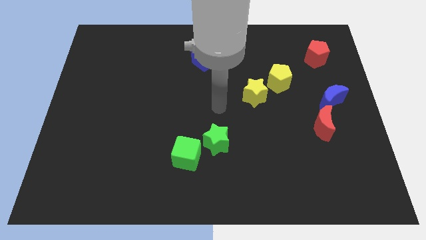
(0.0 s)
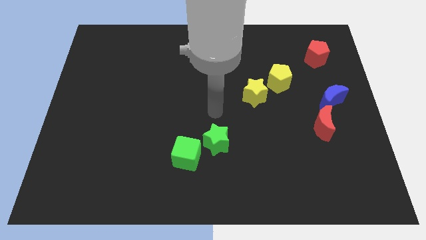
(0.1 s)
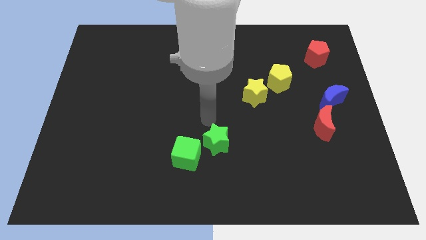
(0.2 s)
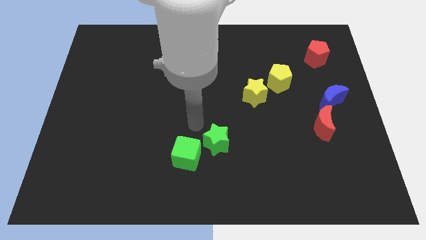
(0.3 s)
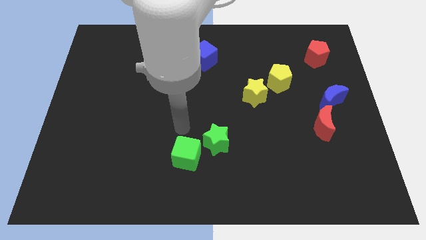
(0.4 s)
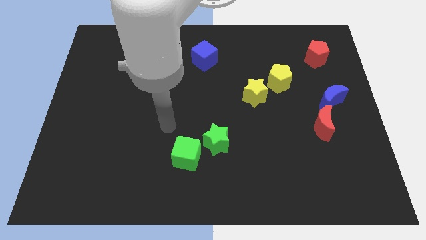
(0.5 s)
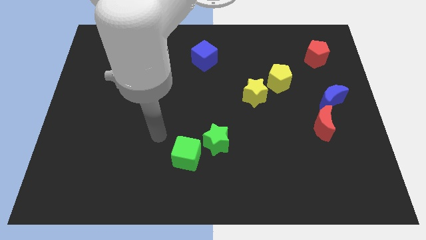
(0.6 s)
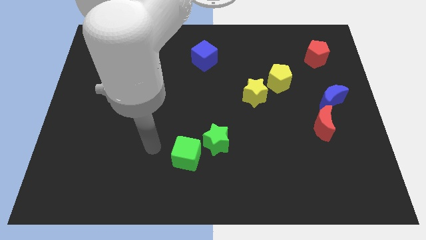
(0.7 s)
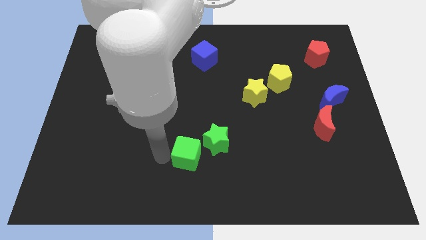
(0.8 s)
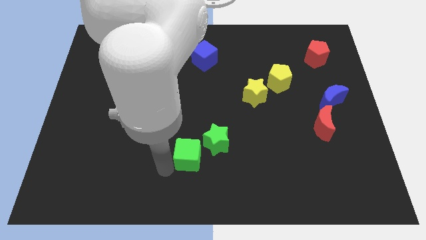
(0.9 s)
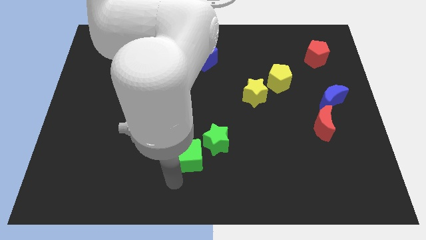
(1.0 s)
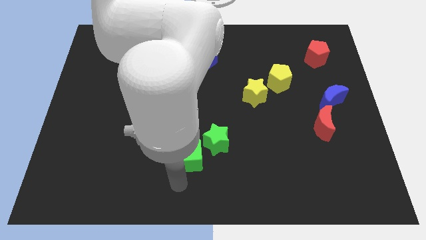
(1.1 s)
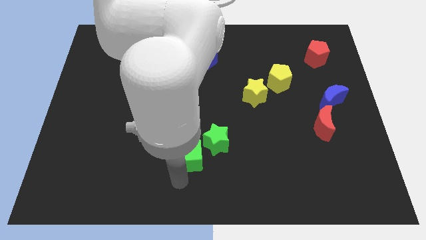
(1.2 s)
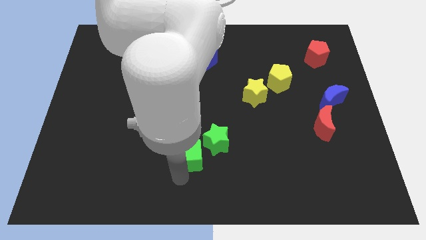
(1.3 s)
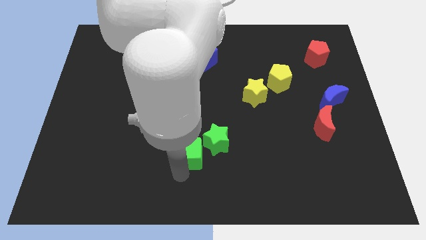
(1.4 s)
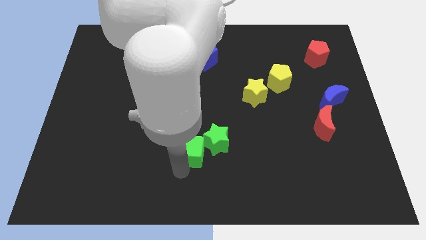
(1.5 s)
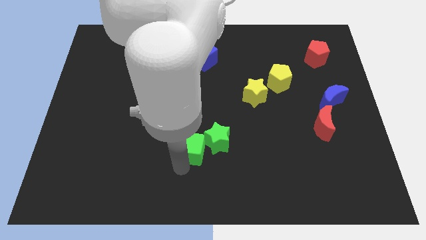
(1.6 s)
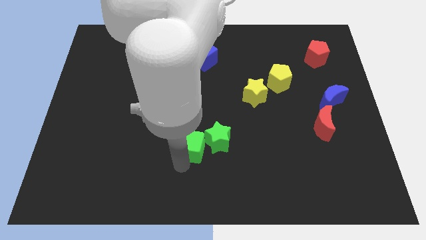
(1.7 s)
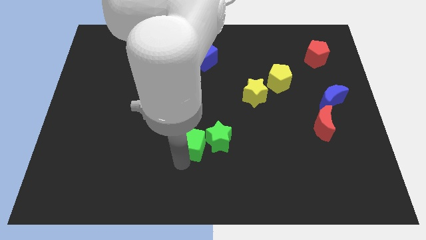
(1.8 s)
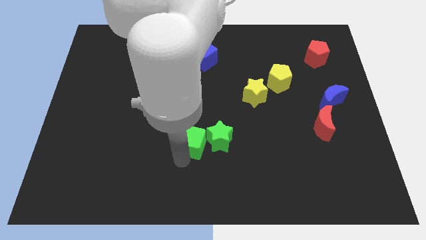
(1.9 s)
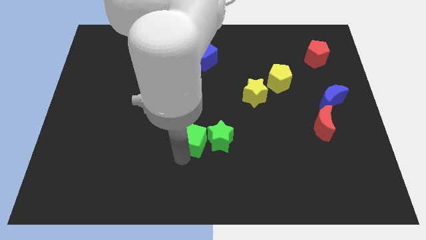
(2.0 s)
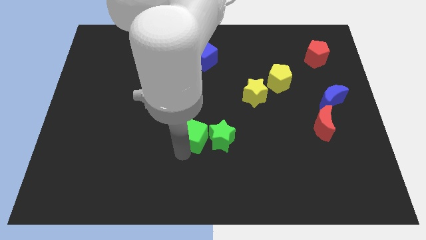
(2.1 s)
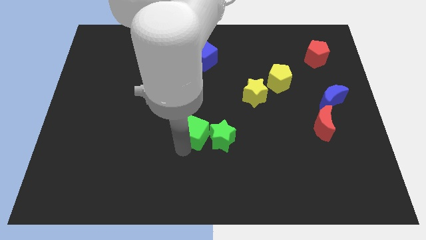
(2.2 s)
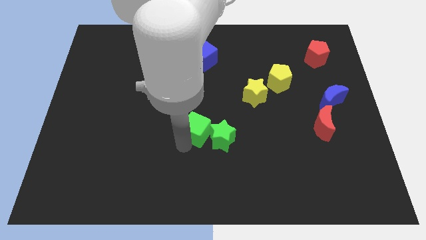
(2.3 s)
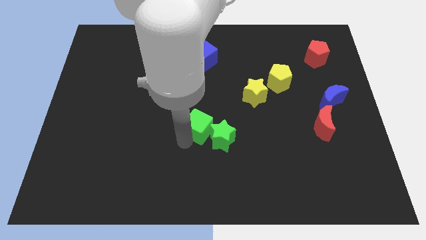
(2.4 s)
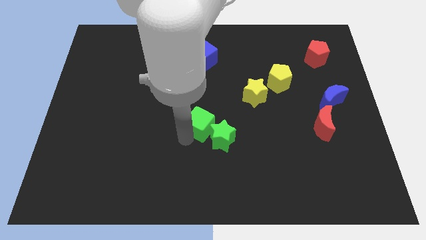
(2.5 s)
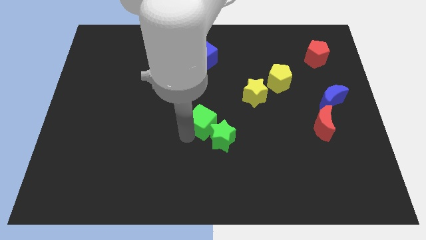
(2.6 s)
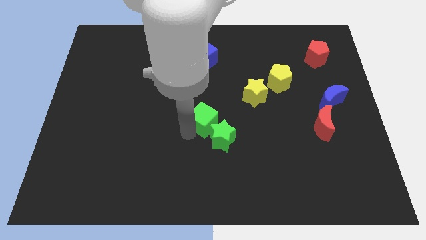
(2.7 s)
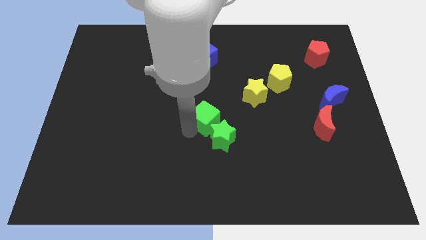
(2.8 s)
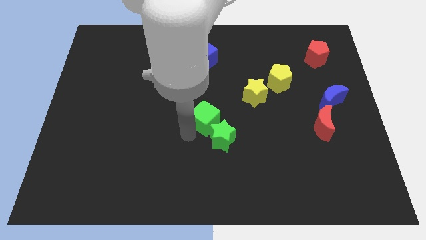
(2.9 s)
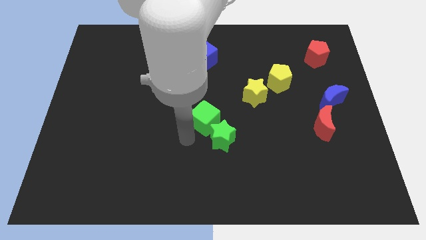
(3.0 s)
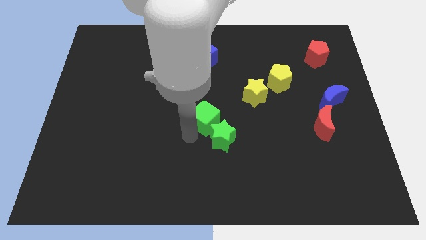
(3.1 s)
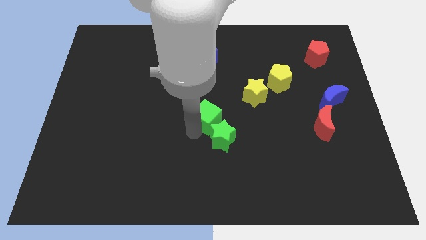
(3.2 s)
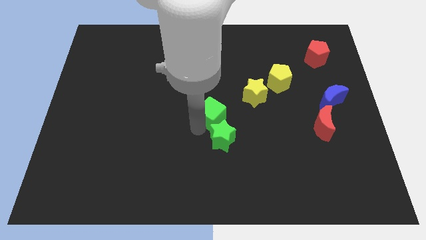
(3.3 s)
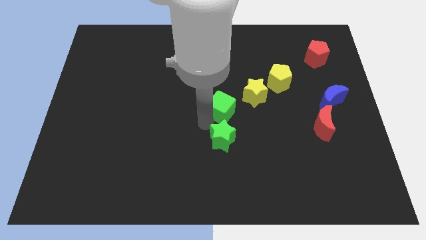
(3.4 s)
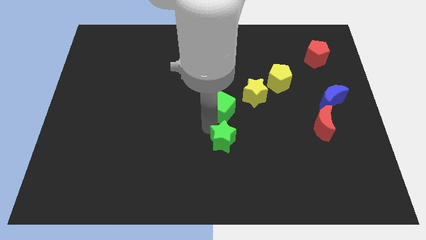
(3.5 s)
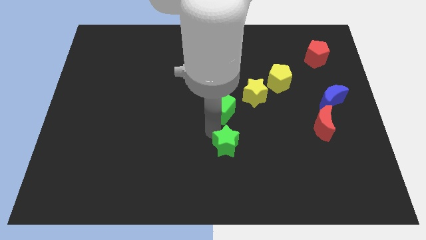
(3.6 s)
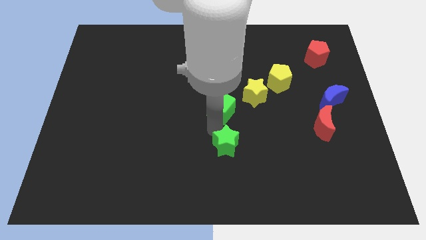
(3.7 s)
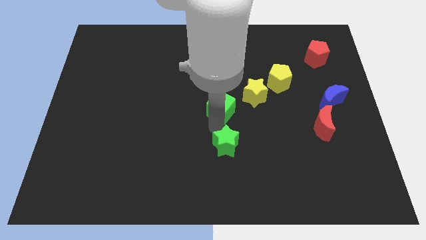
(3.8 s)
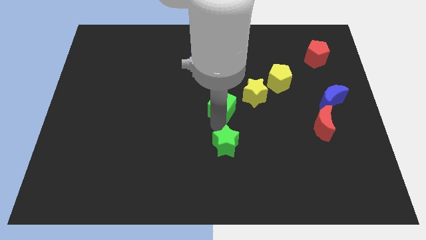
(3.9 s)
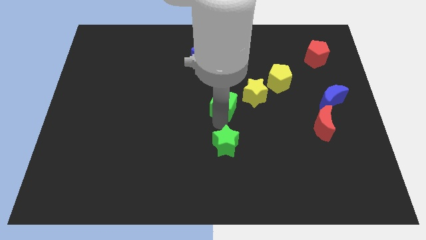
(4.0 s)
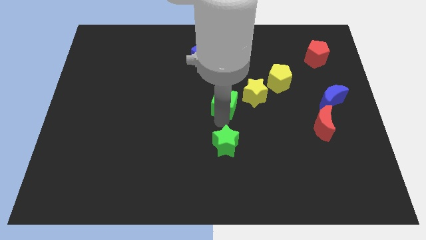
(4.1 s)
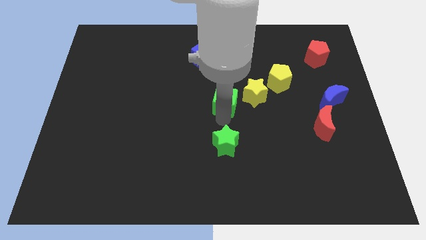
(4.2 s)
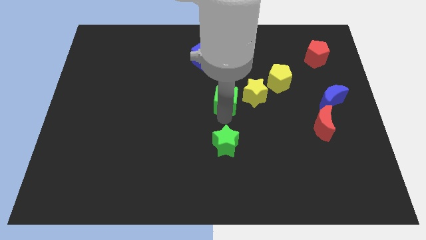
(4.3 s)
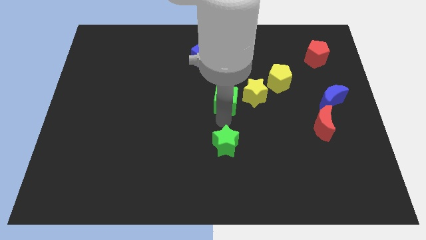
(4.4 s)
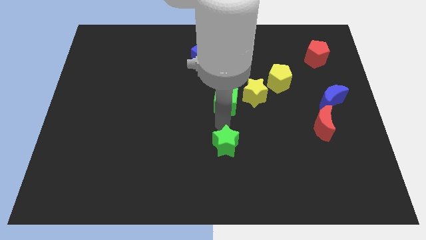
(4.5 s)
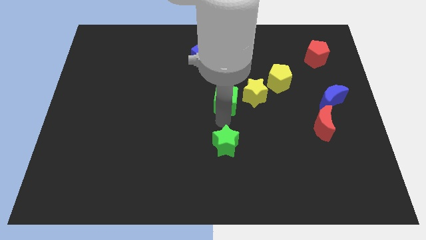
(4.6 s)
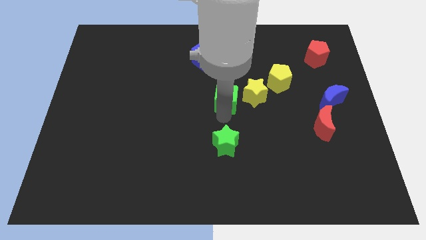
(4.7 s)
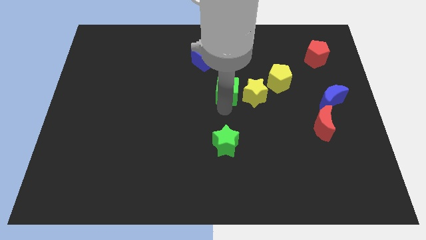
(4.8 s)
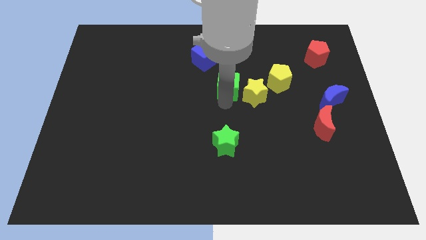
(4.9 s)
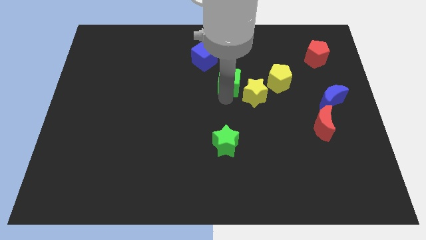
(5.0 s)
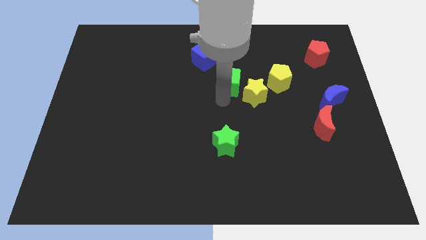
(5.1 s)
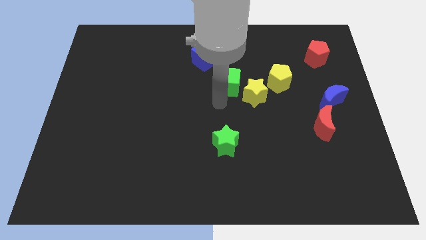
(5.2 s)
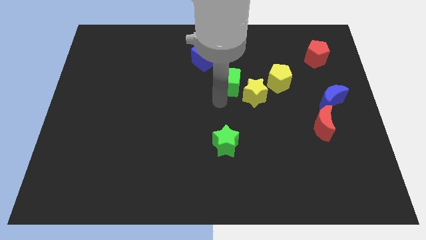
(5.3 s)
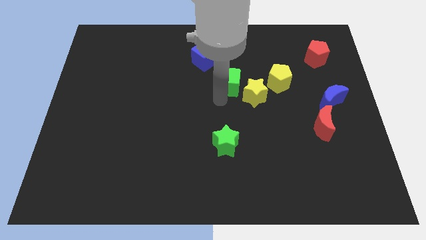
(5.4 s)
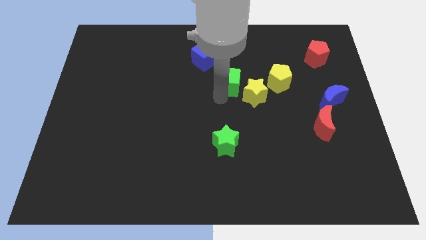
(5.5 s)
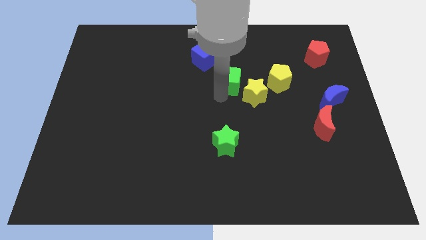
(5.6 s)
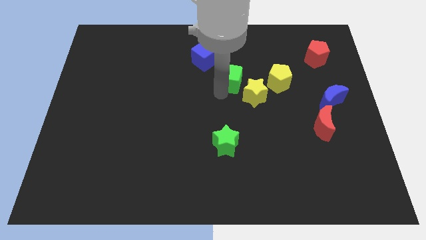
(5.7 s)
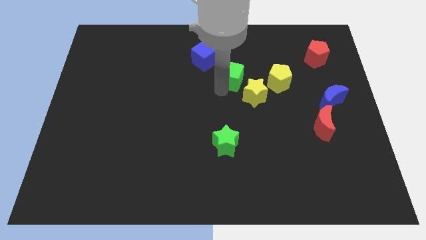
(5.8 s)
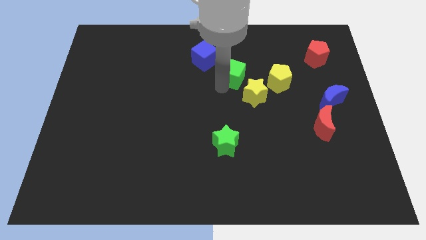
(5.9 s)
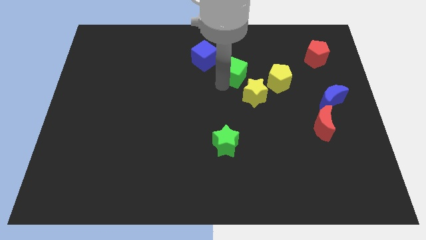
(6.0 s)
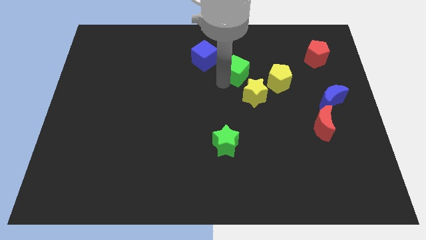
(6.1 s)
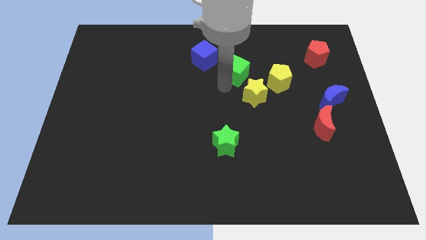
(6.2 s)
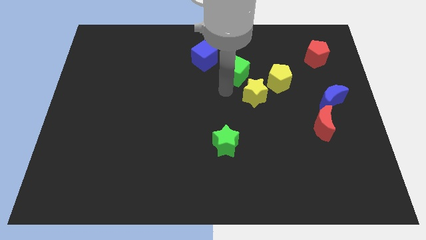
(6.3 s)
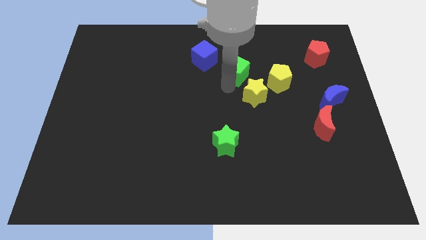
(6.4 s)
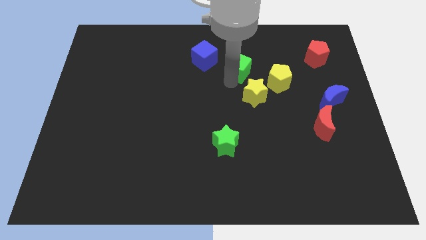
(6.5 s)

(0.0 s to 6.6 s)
move the green cube right of the blue cube

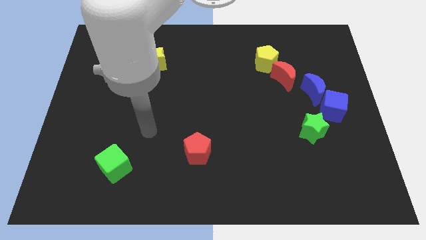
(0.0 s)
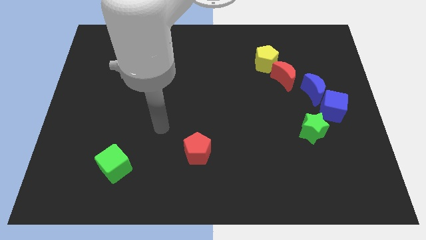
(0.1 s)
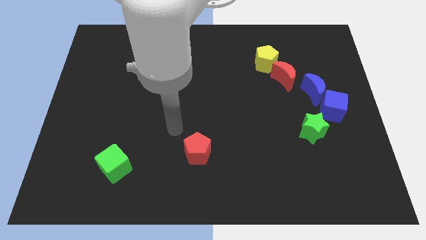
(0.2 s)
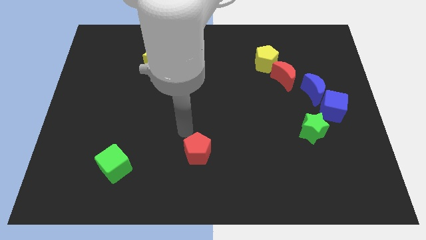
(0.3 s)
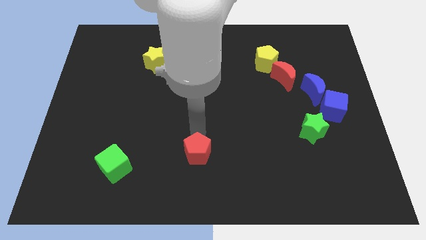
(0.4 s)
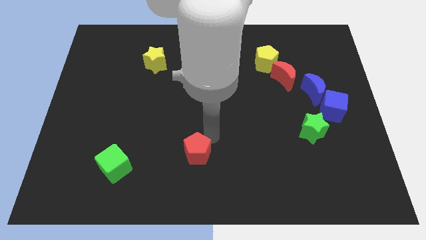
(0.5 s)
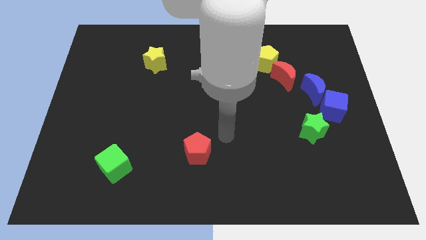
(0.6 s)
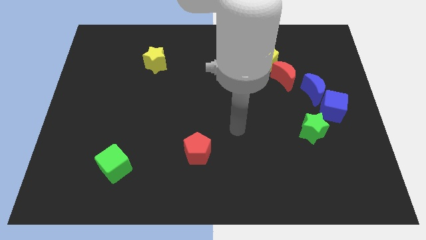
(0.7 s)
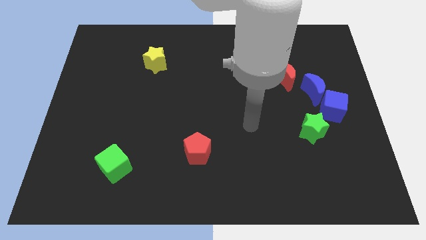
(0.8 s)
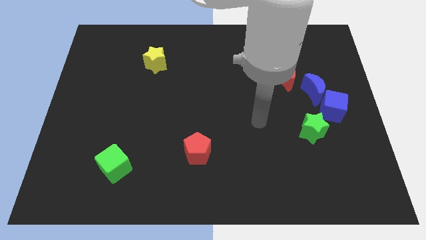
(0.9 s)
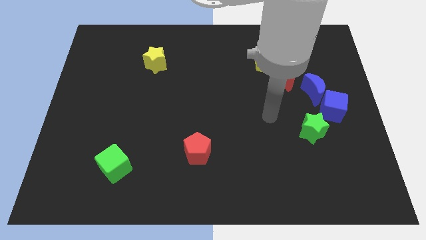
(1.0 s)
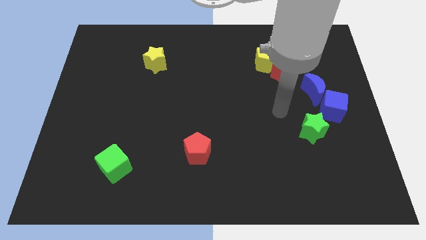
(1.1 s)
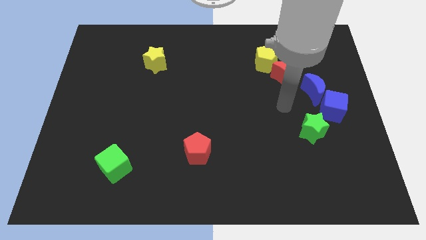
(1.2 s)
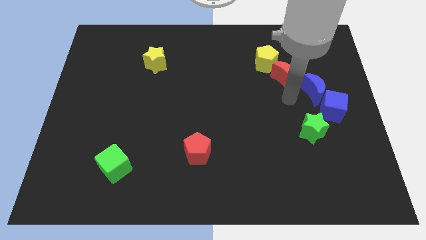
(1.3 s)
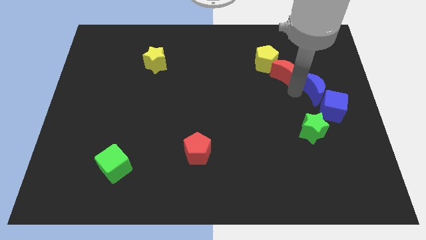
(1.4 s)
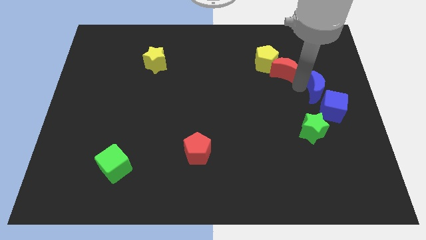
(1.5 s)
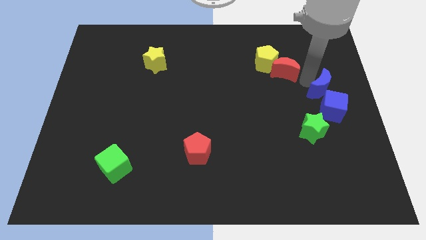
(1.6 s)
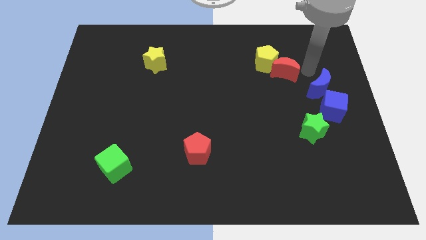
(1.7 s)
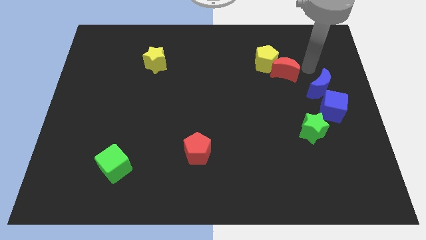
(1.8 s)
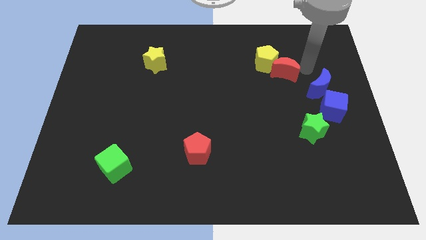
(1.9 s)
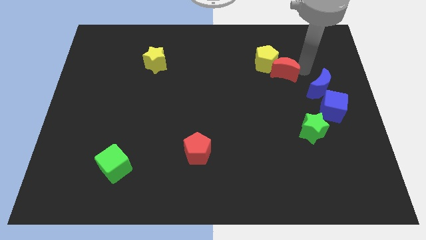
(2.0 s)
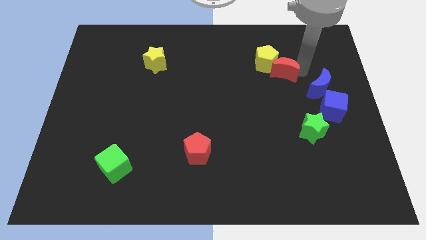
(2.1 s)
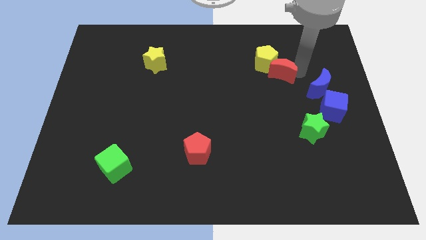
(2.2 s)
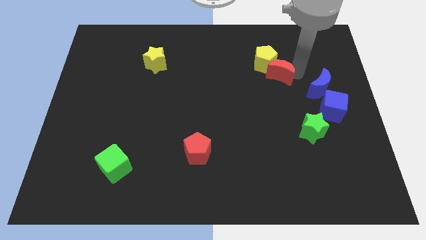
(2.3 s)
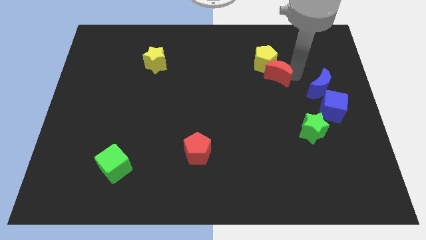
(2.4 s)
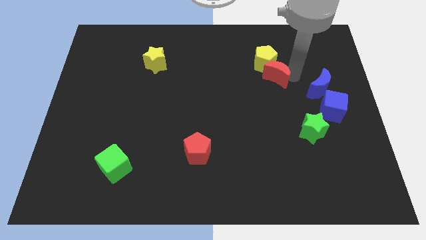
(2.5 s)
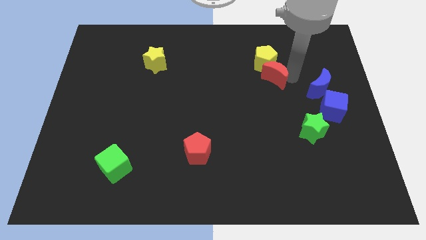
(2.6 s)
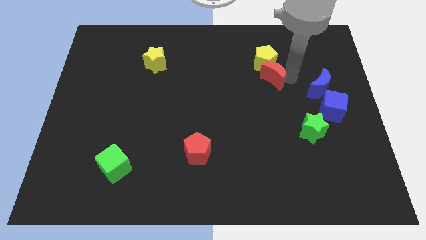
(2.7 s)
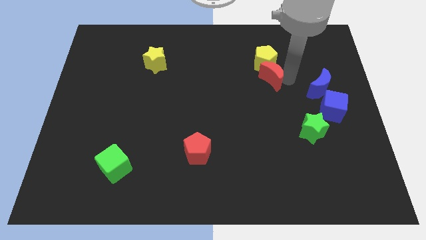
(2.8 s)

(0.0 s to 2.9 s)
move the red moon to the bottom left of the yellow pentagon
